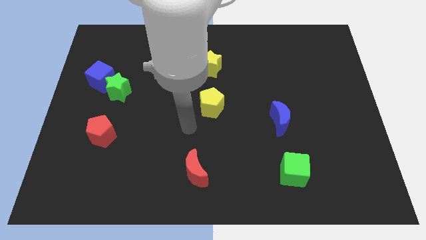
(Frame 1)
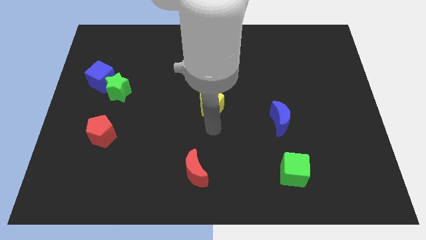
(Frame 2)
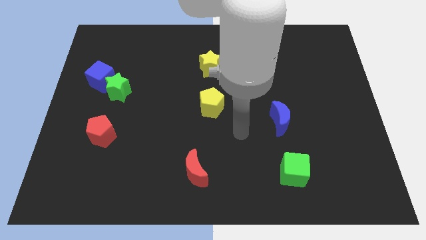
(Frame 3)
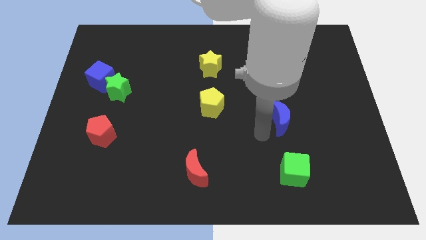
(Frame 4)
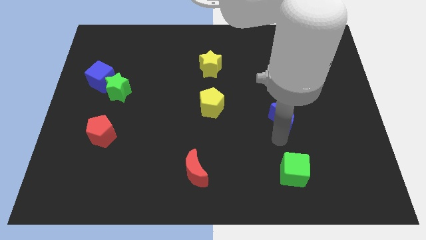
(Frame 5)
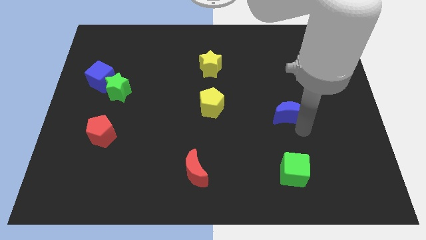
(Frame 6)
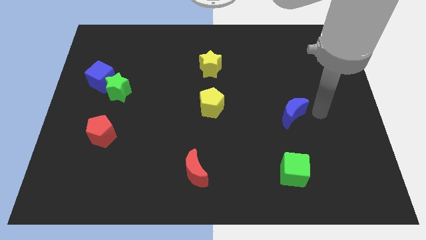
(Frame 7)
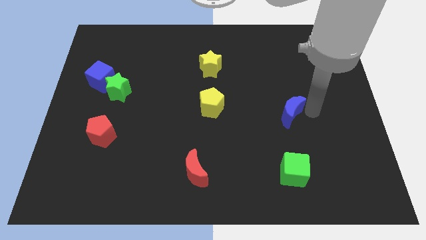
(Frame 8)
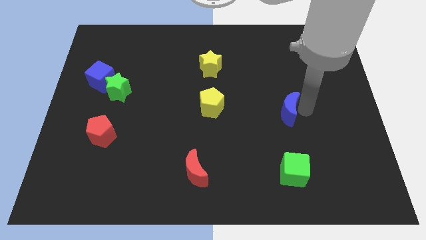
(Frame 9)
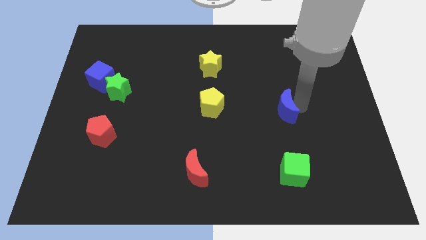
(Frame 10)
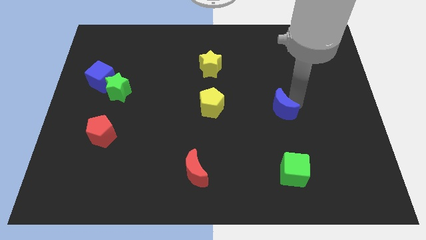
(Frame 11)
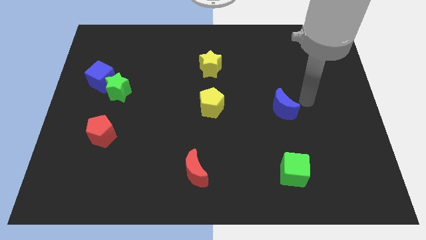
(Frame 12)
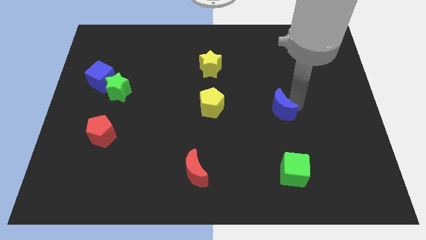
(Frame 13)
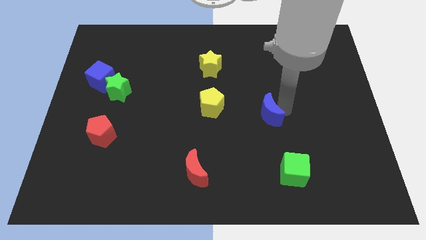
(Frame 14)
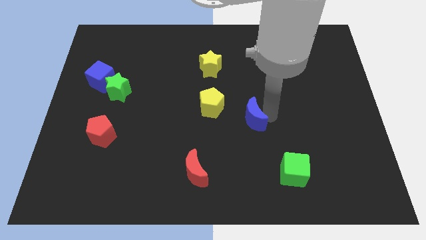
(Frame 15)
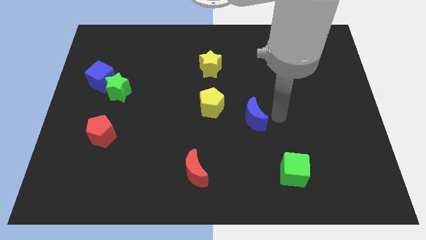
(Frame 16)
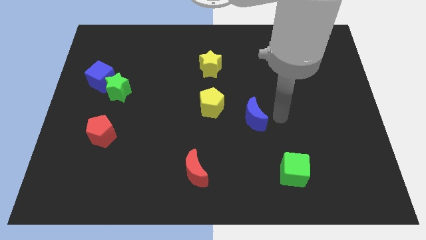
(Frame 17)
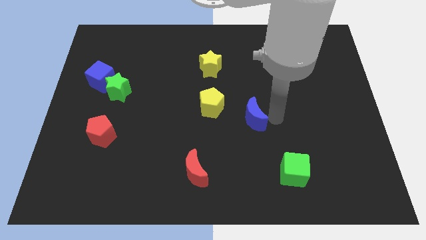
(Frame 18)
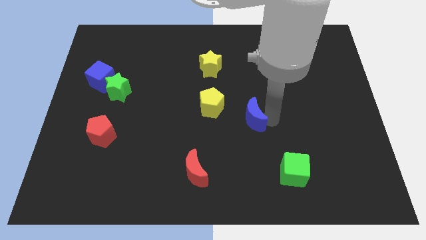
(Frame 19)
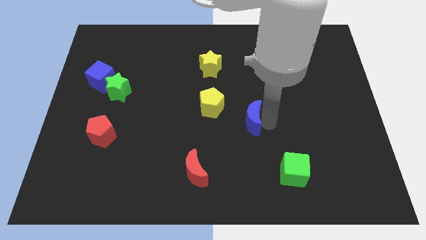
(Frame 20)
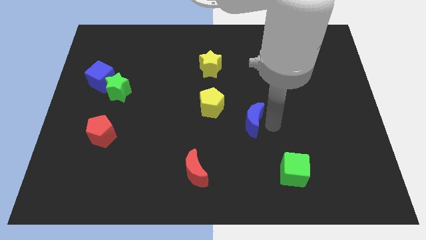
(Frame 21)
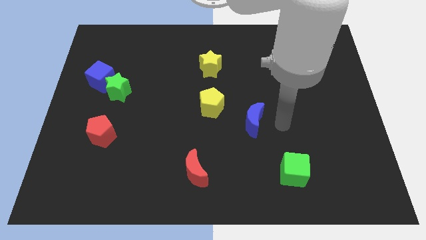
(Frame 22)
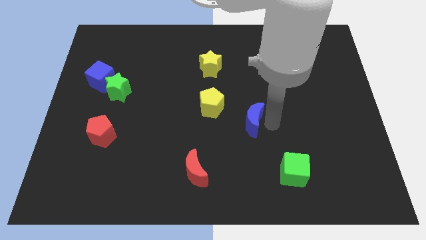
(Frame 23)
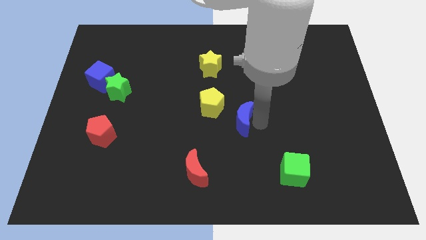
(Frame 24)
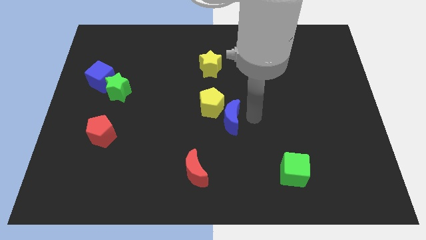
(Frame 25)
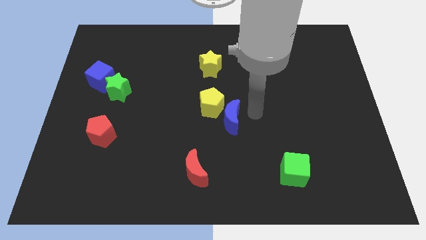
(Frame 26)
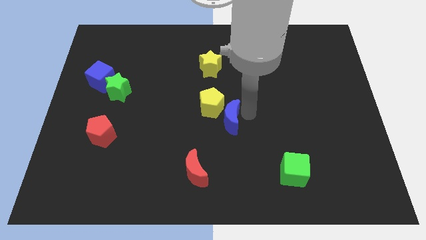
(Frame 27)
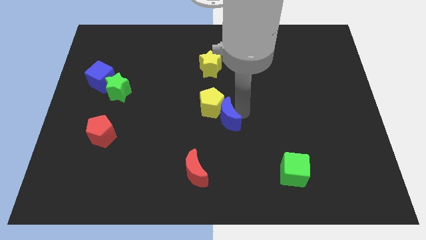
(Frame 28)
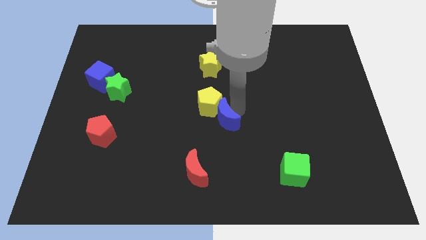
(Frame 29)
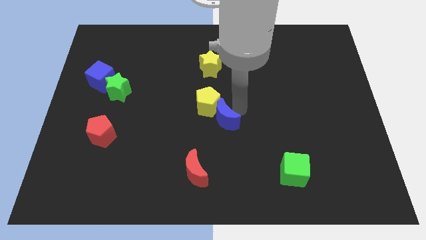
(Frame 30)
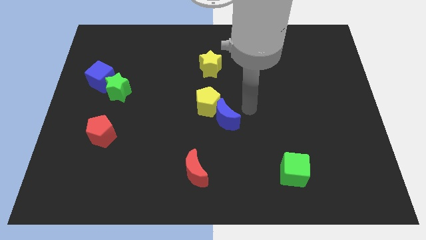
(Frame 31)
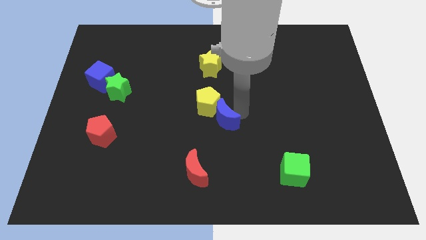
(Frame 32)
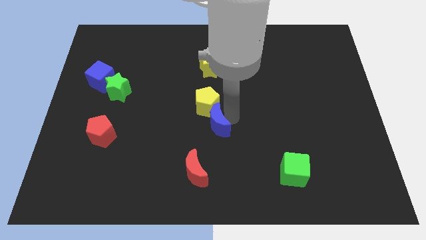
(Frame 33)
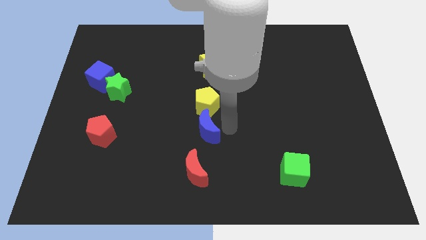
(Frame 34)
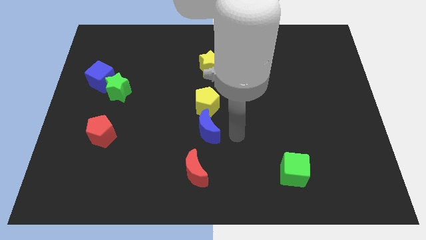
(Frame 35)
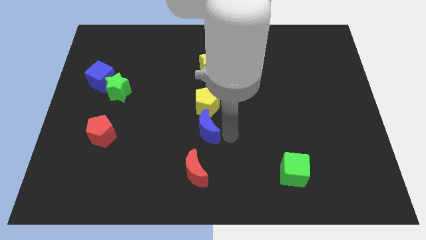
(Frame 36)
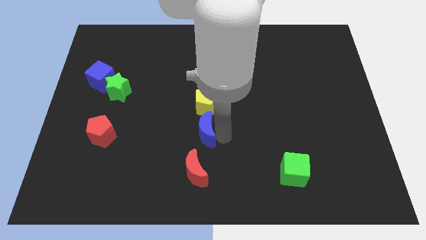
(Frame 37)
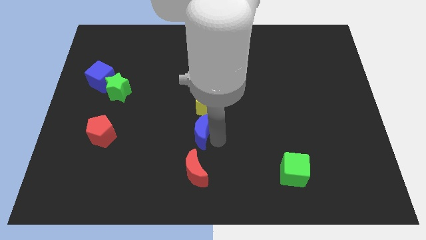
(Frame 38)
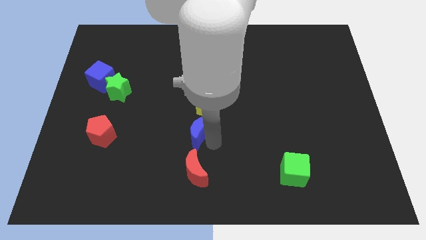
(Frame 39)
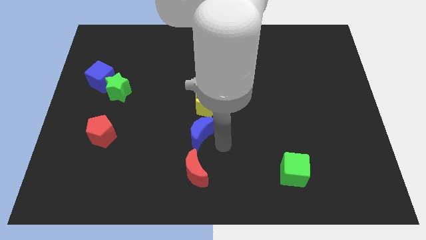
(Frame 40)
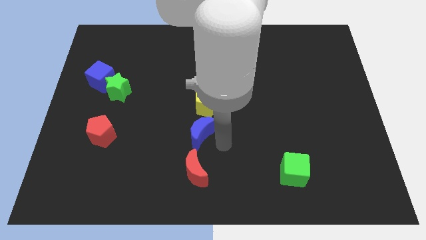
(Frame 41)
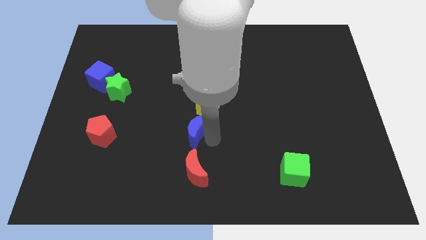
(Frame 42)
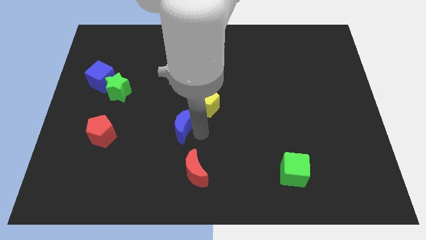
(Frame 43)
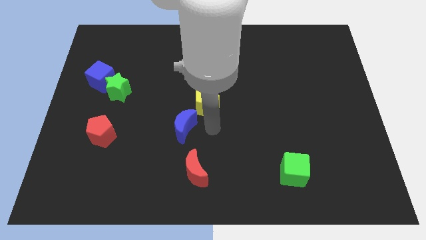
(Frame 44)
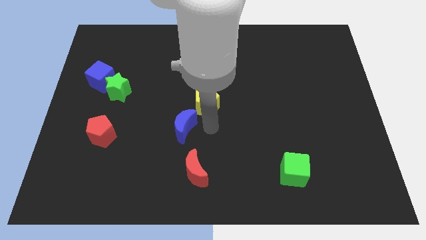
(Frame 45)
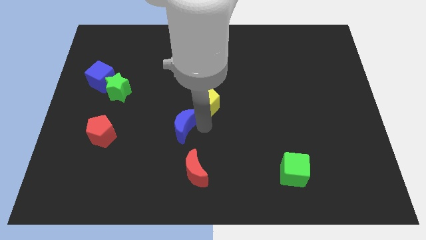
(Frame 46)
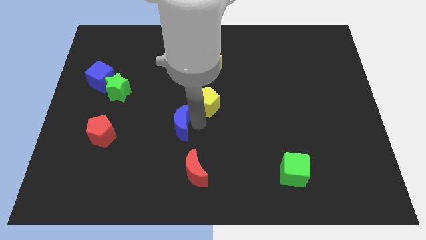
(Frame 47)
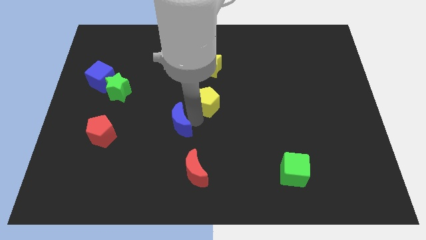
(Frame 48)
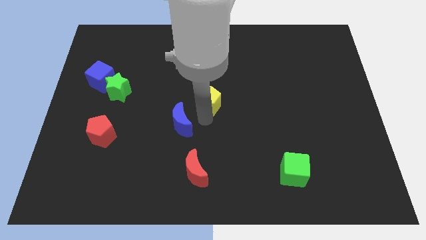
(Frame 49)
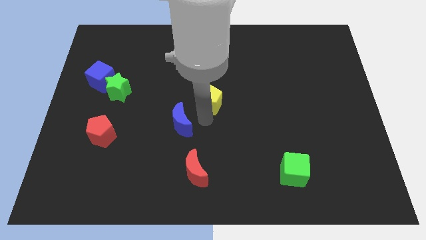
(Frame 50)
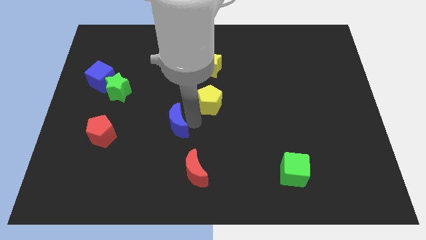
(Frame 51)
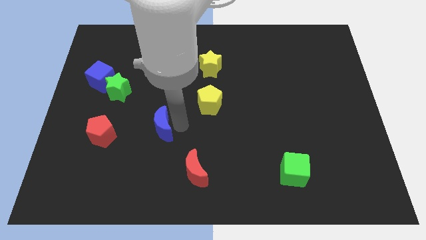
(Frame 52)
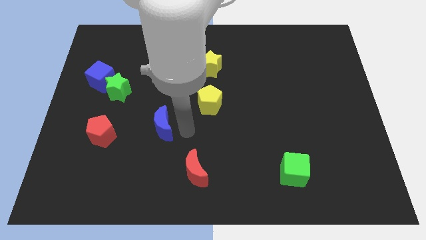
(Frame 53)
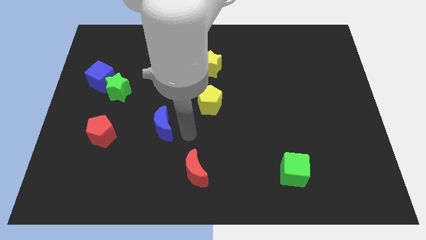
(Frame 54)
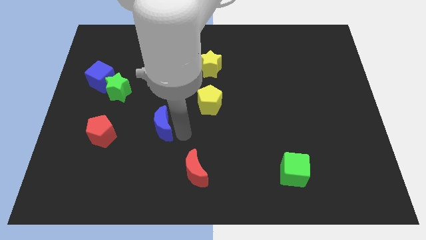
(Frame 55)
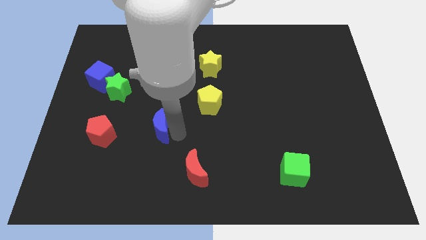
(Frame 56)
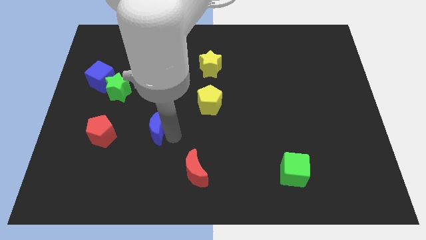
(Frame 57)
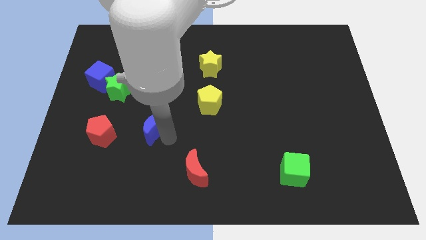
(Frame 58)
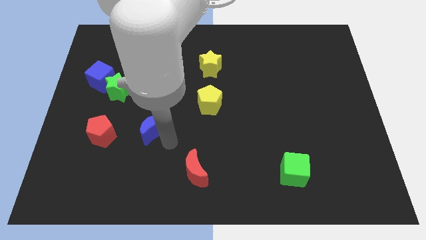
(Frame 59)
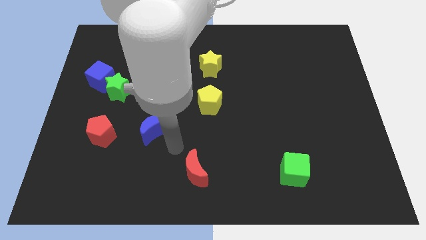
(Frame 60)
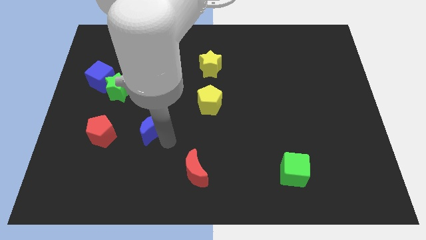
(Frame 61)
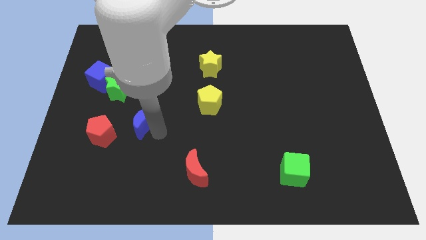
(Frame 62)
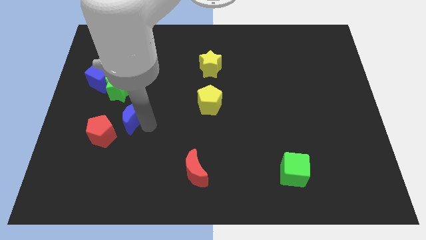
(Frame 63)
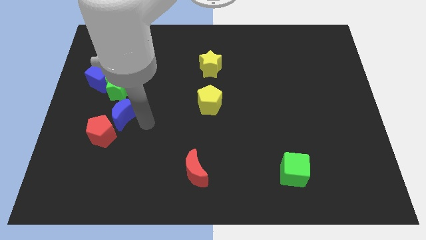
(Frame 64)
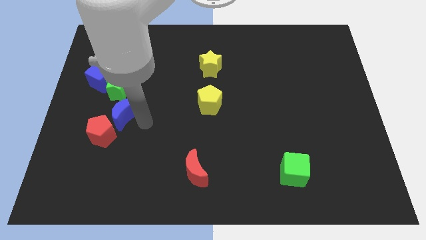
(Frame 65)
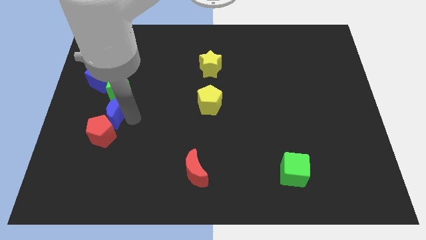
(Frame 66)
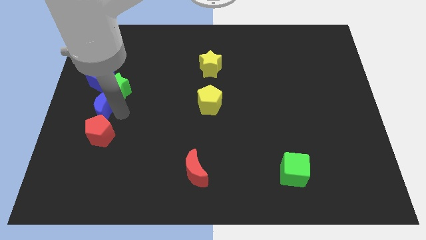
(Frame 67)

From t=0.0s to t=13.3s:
move the blue moon to the left side

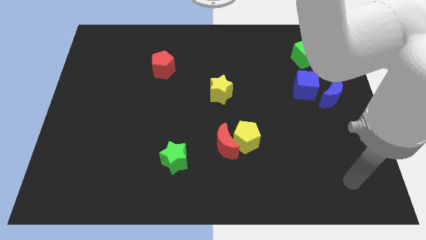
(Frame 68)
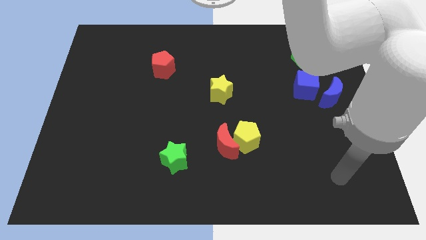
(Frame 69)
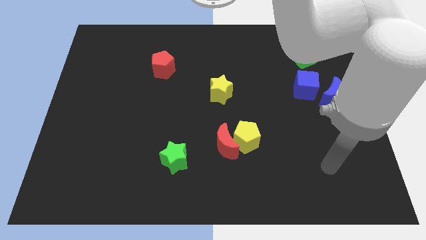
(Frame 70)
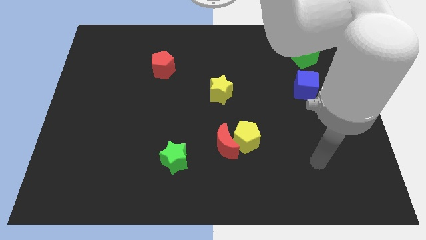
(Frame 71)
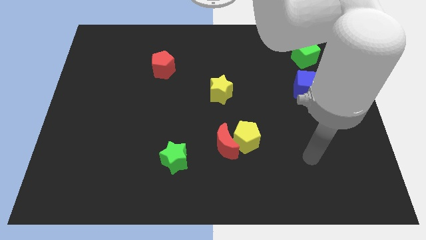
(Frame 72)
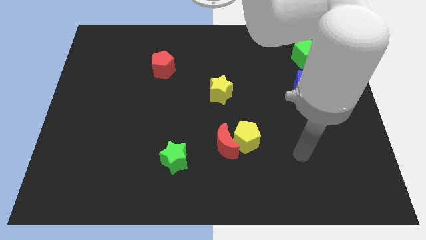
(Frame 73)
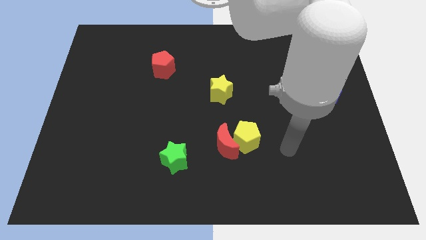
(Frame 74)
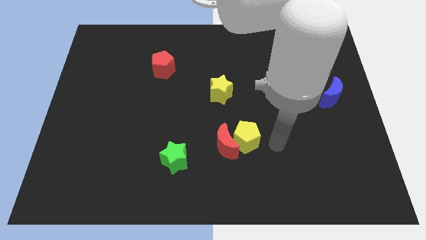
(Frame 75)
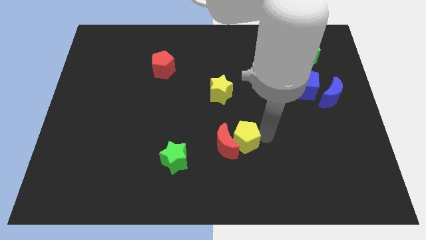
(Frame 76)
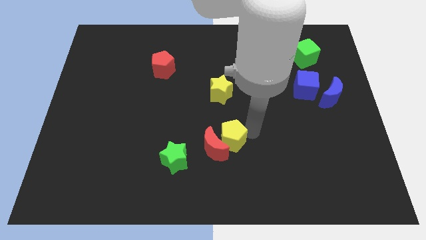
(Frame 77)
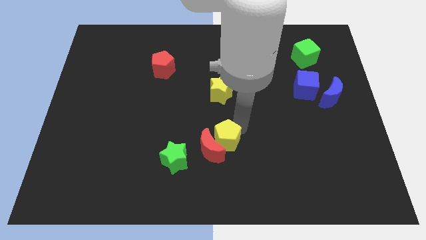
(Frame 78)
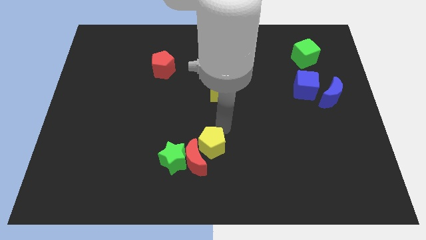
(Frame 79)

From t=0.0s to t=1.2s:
slide the red moon to the bottom
